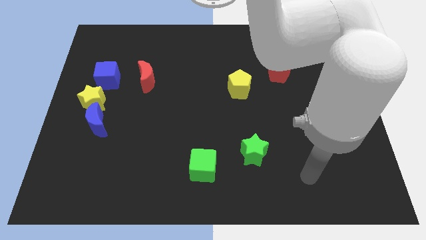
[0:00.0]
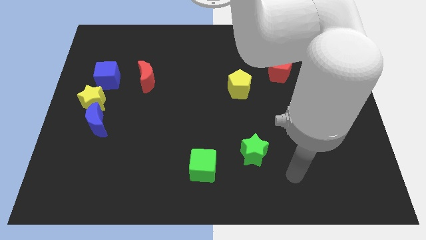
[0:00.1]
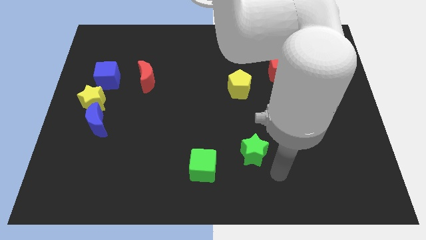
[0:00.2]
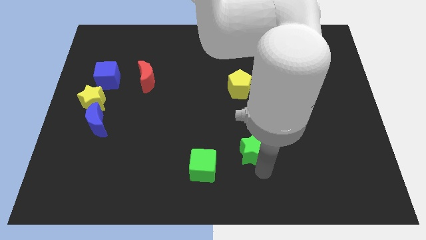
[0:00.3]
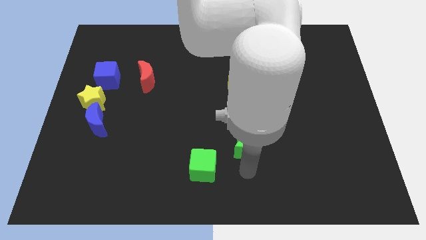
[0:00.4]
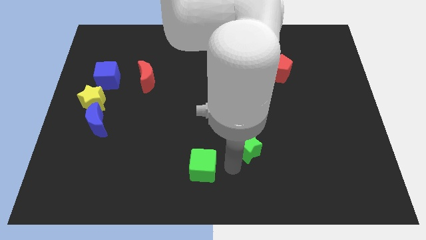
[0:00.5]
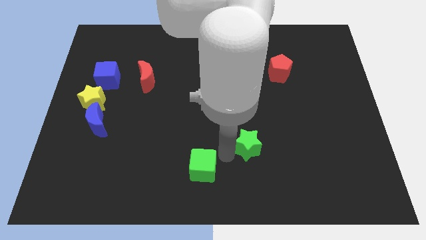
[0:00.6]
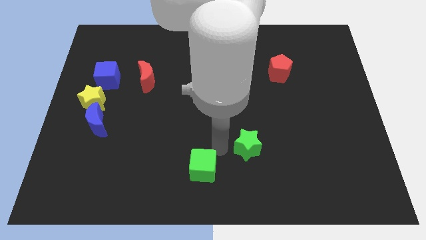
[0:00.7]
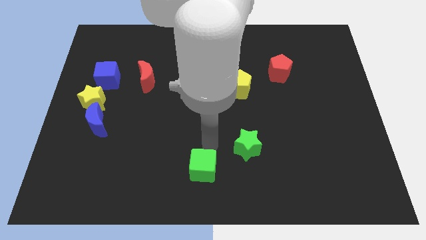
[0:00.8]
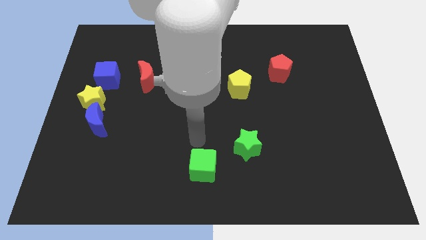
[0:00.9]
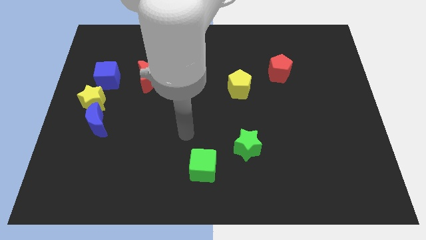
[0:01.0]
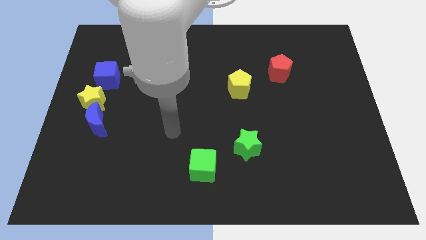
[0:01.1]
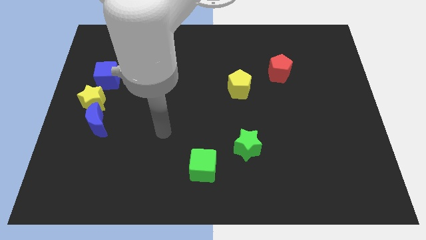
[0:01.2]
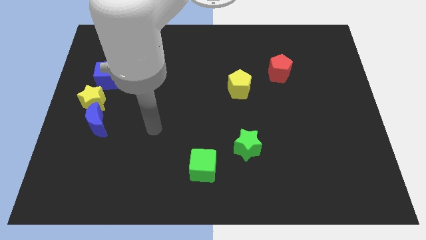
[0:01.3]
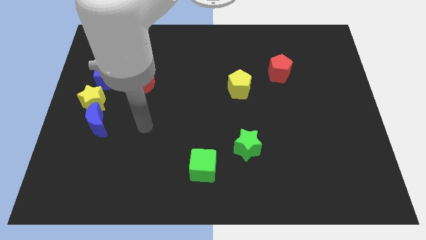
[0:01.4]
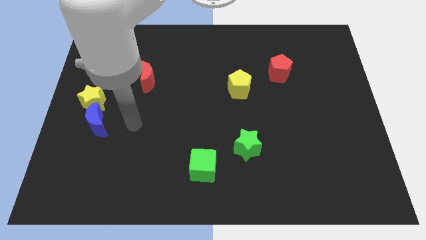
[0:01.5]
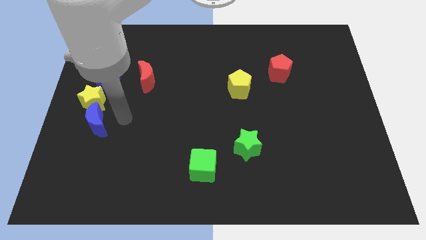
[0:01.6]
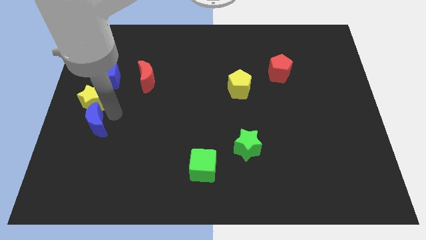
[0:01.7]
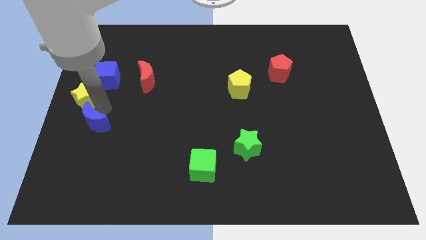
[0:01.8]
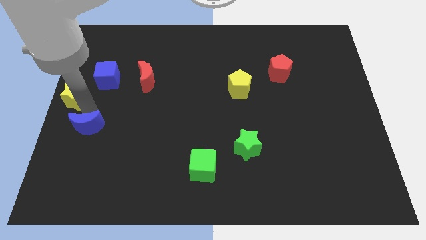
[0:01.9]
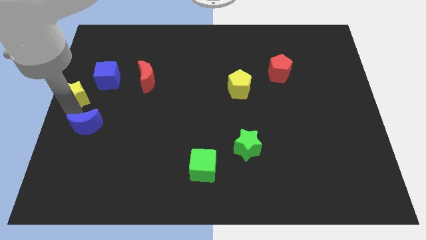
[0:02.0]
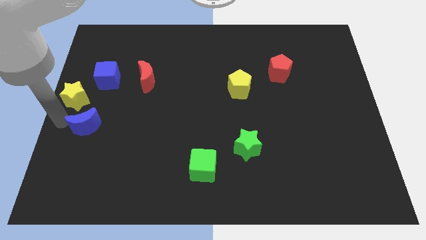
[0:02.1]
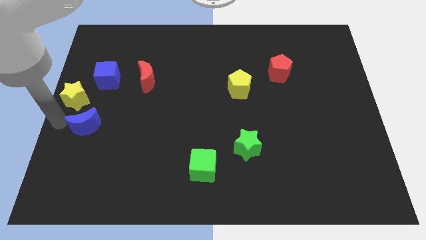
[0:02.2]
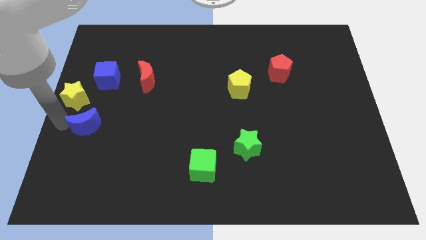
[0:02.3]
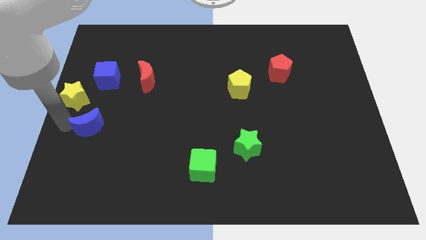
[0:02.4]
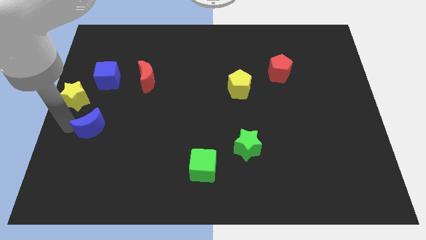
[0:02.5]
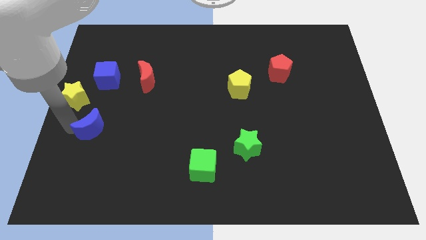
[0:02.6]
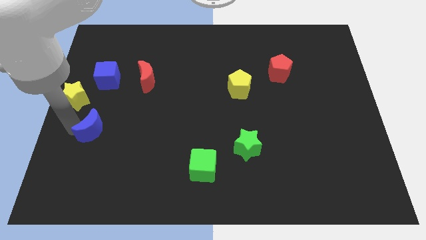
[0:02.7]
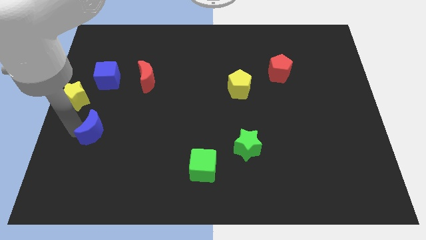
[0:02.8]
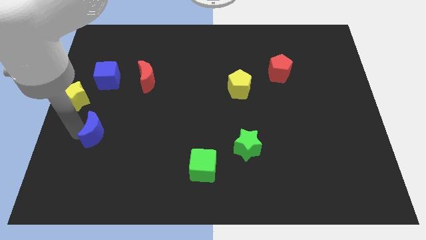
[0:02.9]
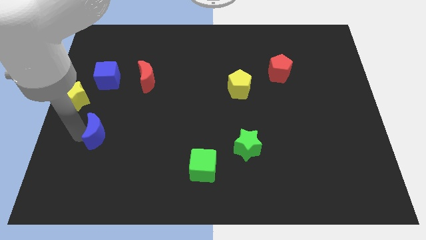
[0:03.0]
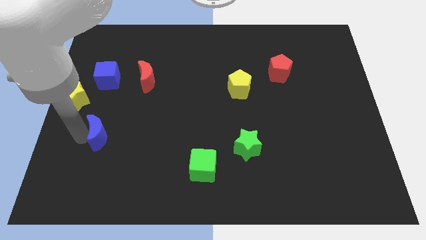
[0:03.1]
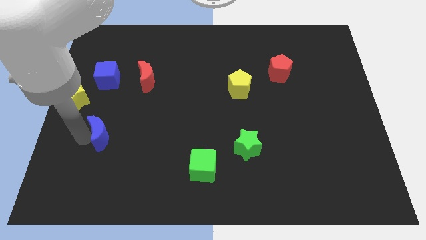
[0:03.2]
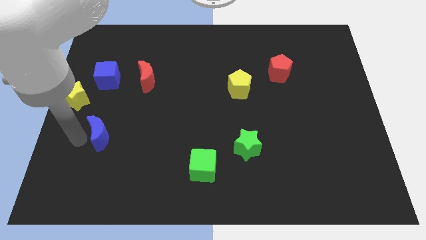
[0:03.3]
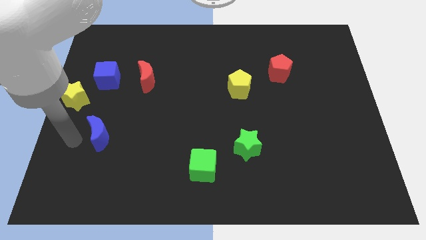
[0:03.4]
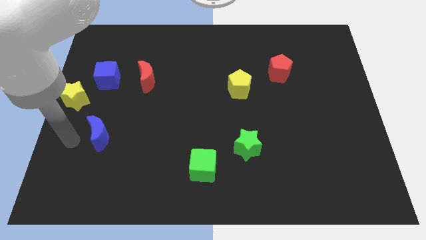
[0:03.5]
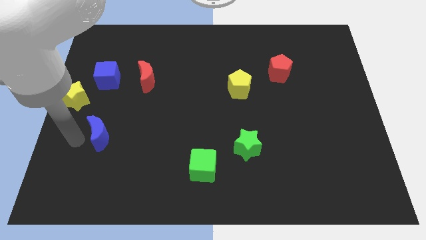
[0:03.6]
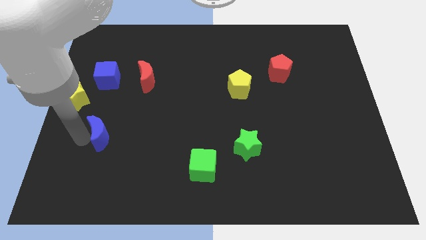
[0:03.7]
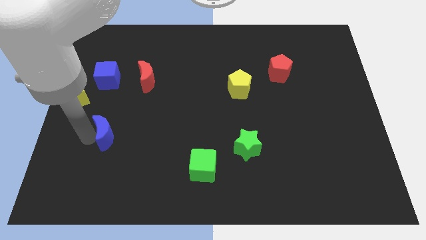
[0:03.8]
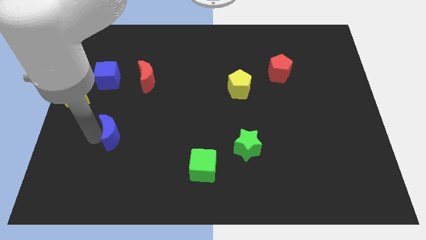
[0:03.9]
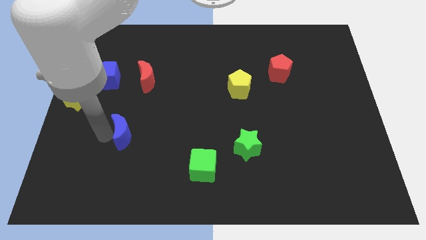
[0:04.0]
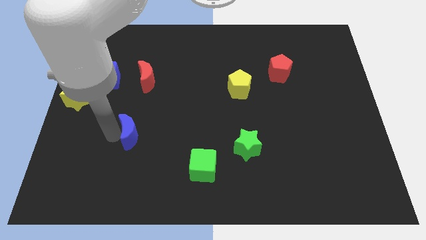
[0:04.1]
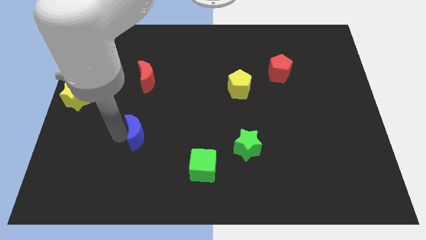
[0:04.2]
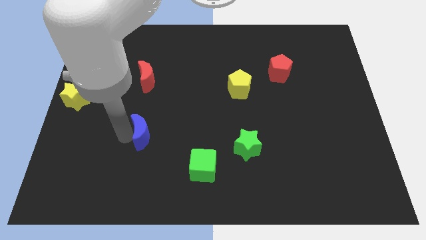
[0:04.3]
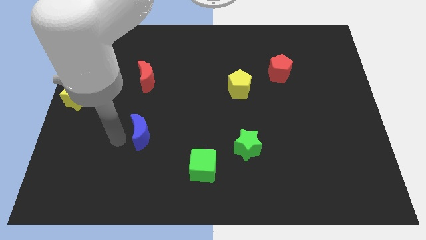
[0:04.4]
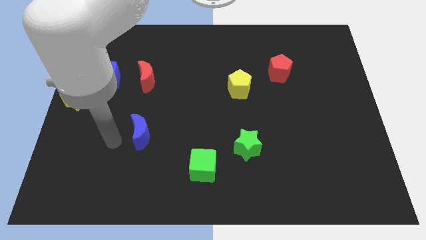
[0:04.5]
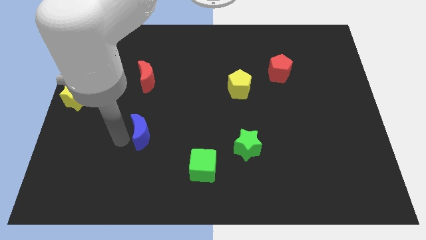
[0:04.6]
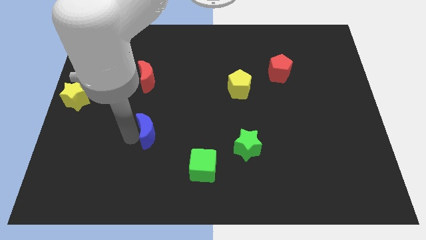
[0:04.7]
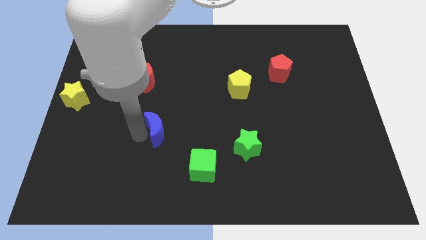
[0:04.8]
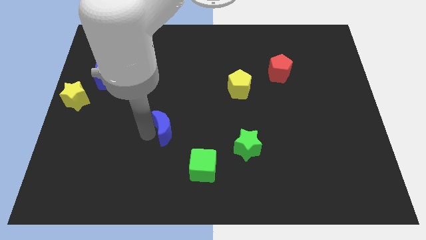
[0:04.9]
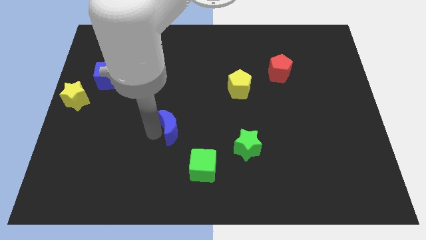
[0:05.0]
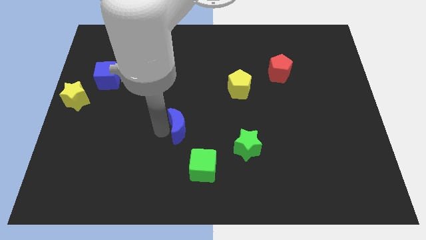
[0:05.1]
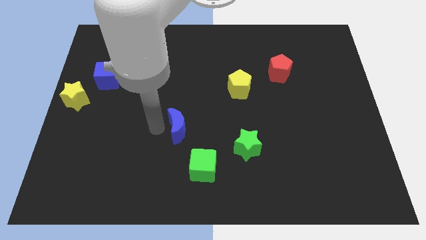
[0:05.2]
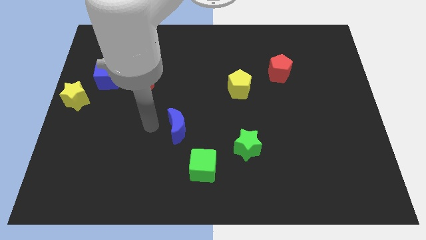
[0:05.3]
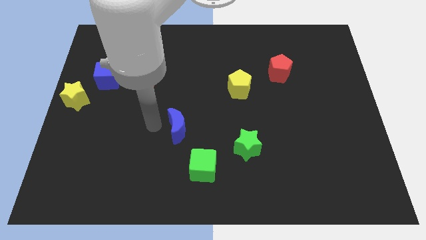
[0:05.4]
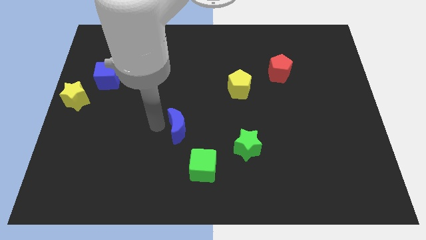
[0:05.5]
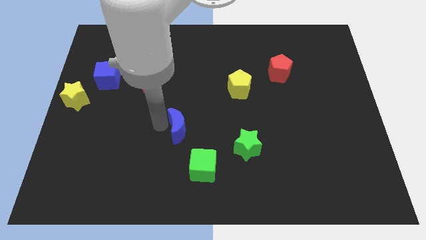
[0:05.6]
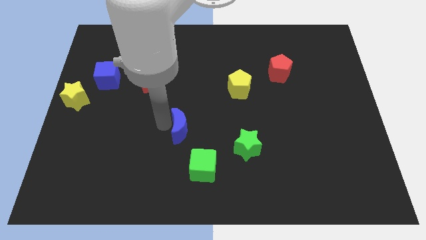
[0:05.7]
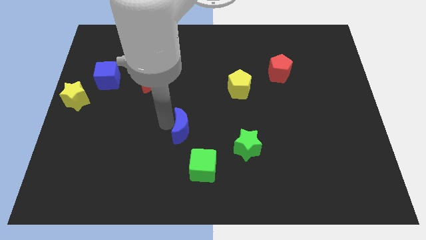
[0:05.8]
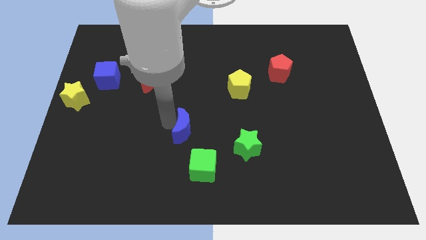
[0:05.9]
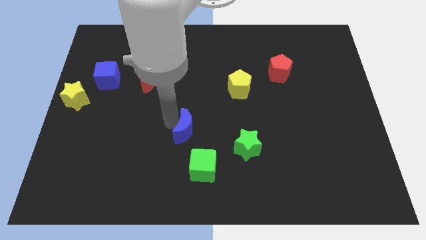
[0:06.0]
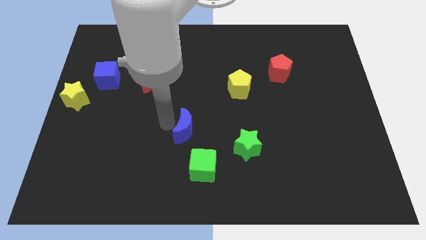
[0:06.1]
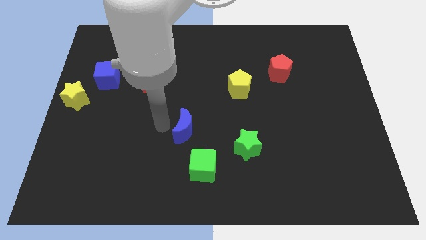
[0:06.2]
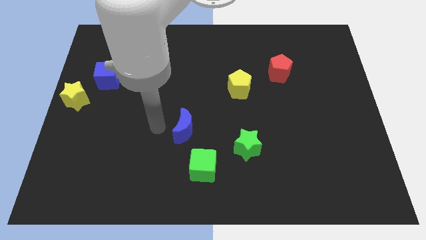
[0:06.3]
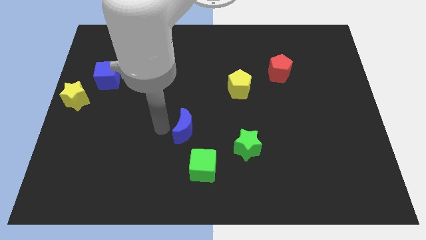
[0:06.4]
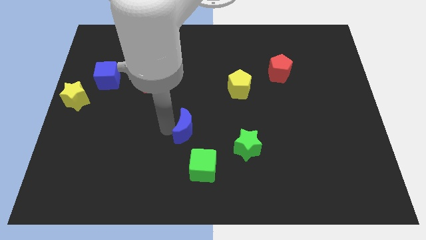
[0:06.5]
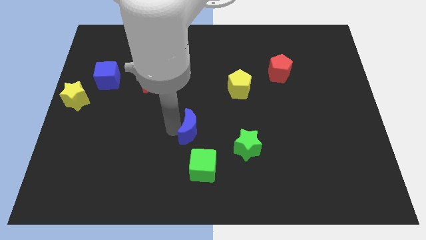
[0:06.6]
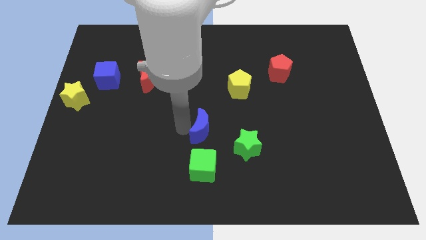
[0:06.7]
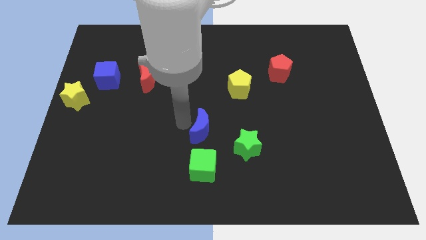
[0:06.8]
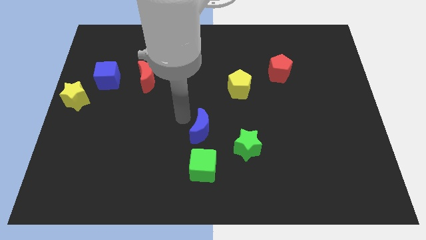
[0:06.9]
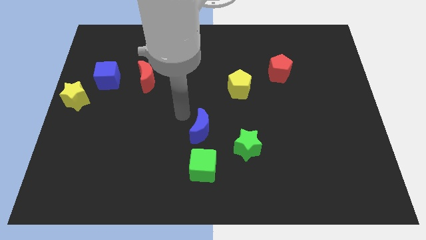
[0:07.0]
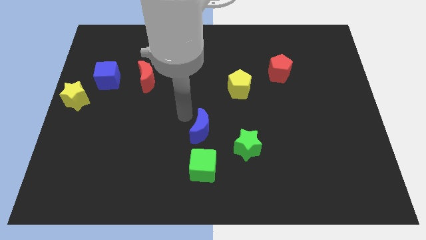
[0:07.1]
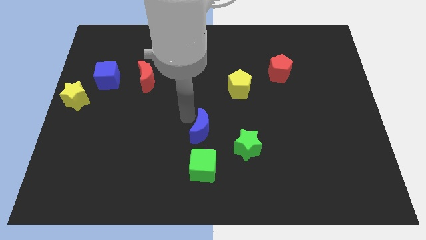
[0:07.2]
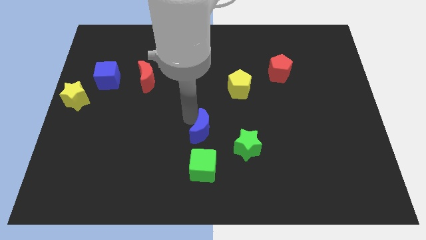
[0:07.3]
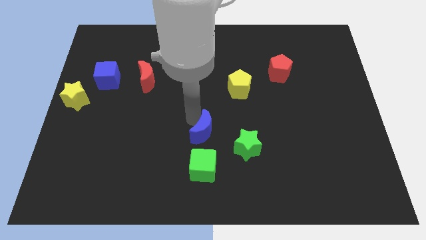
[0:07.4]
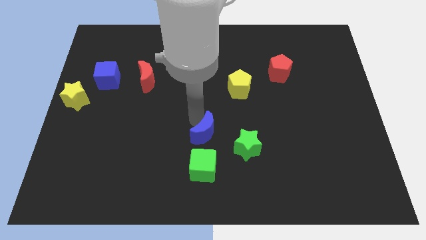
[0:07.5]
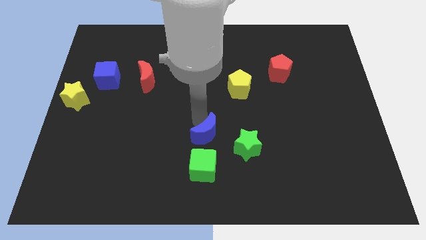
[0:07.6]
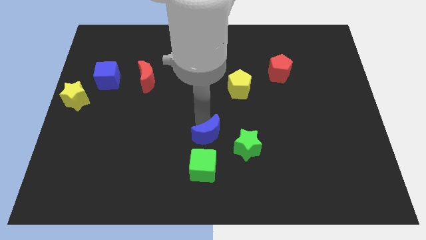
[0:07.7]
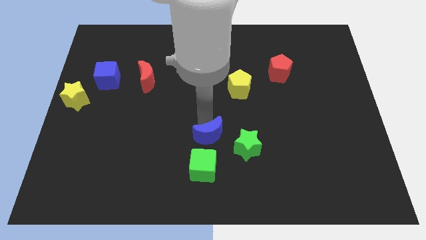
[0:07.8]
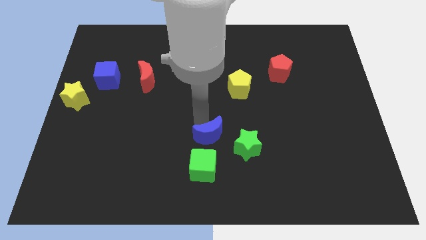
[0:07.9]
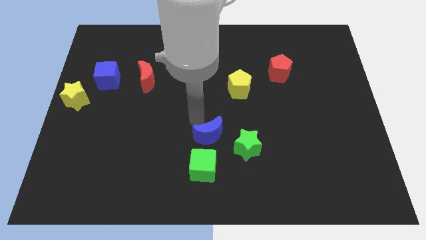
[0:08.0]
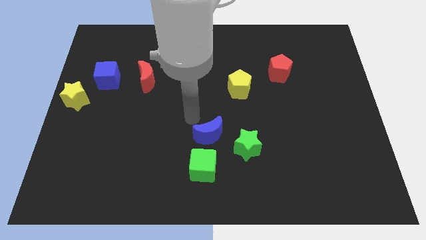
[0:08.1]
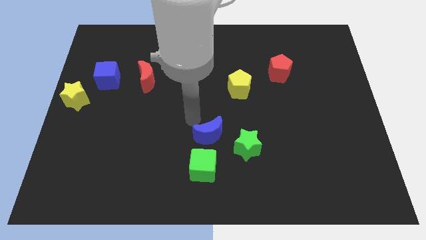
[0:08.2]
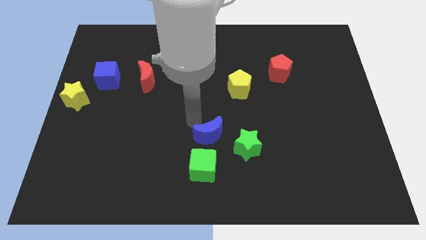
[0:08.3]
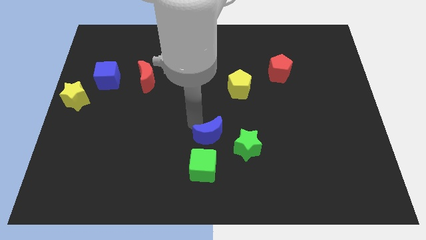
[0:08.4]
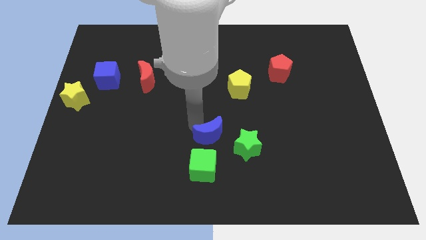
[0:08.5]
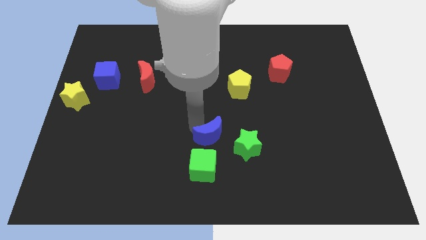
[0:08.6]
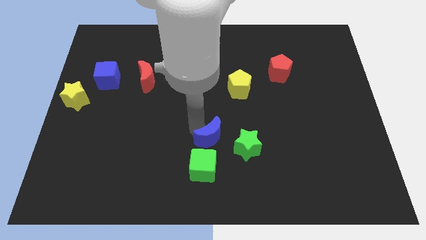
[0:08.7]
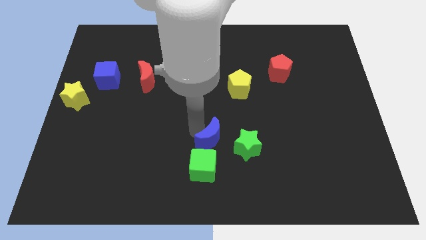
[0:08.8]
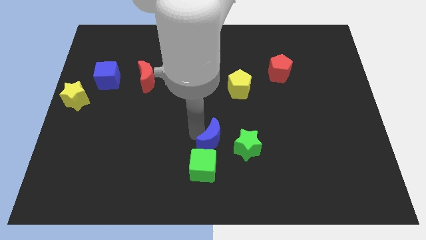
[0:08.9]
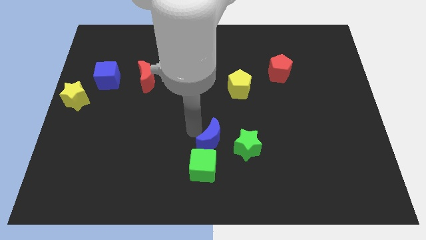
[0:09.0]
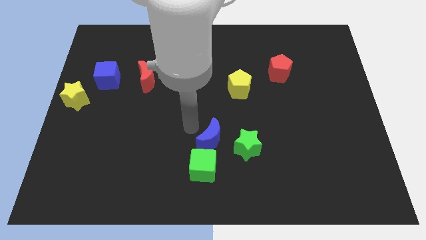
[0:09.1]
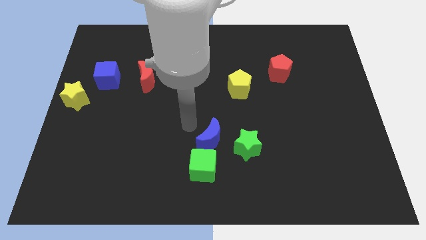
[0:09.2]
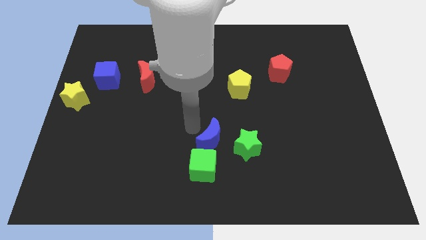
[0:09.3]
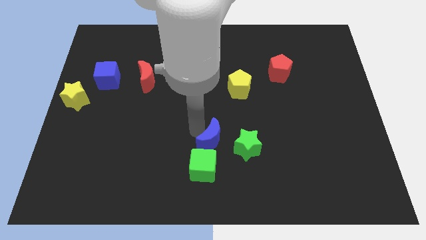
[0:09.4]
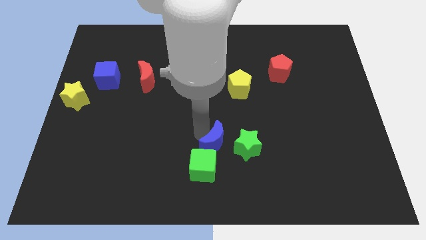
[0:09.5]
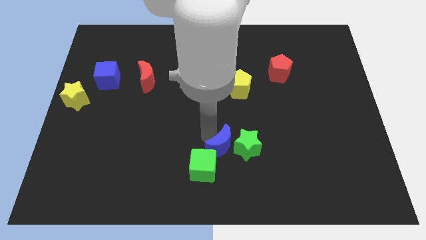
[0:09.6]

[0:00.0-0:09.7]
put the blue moon to the bottom left side of the green star
